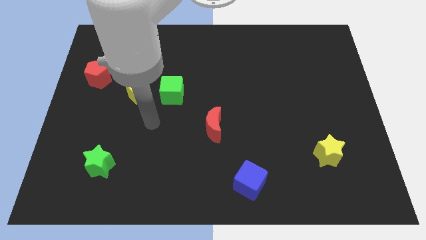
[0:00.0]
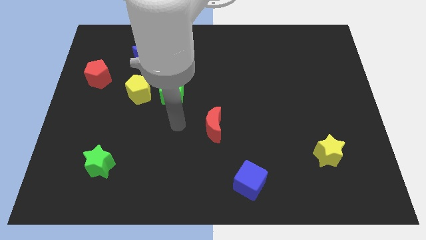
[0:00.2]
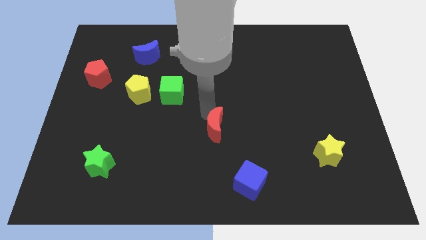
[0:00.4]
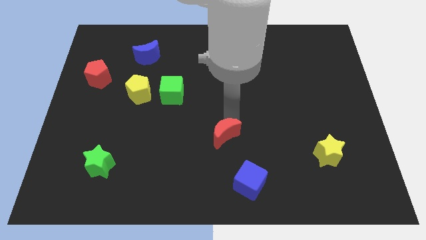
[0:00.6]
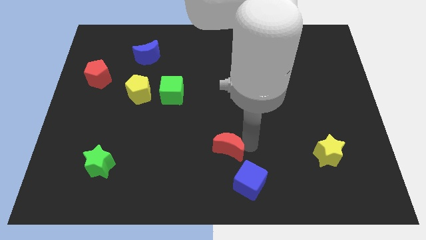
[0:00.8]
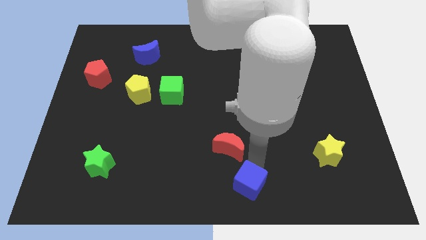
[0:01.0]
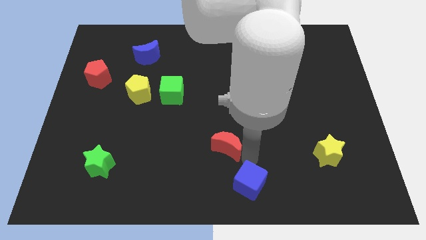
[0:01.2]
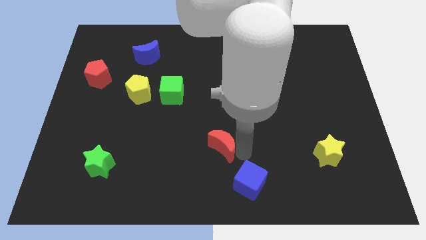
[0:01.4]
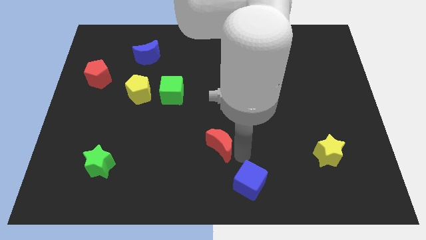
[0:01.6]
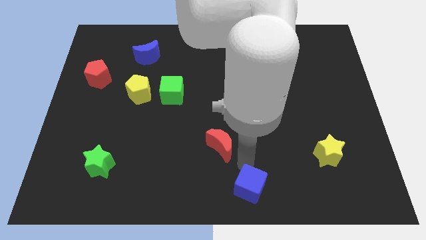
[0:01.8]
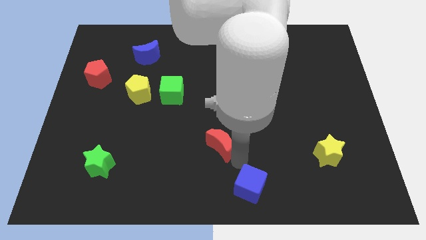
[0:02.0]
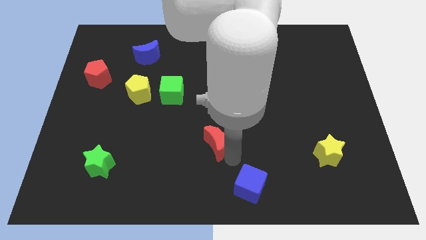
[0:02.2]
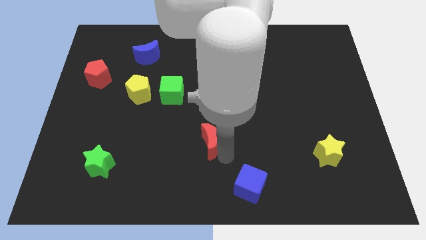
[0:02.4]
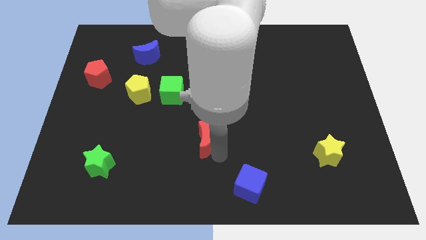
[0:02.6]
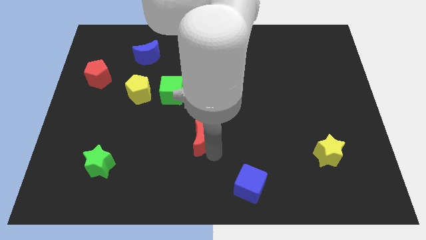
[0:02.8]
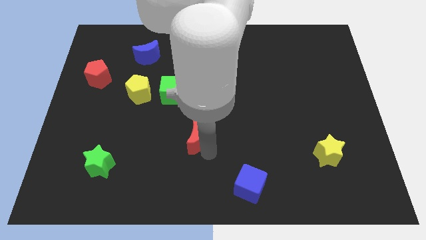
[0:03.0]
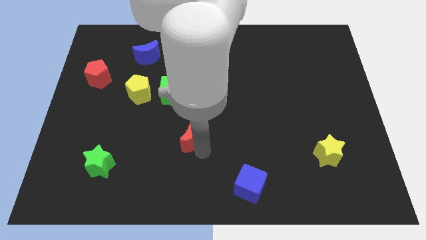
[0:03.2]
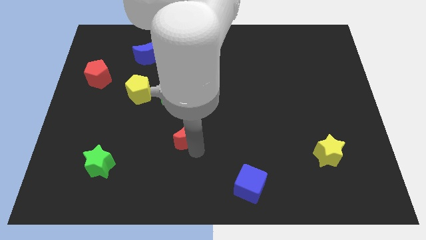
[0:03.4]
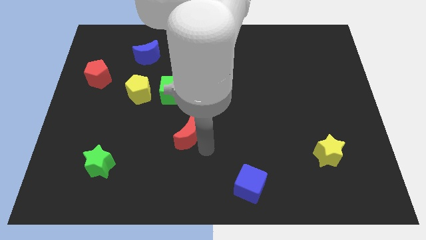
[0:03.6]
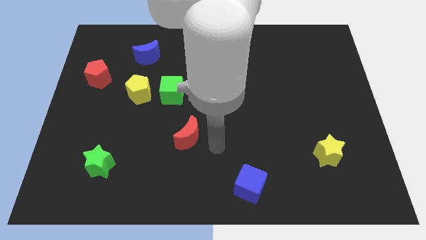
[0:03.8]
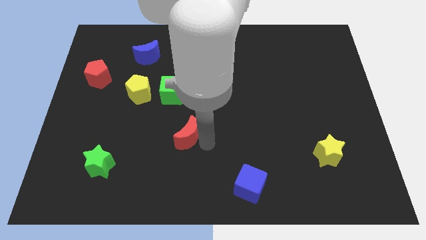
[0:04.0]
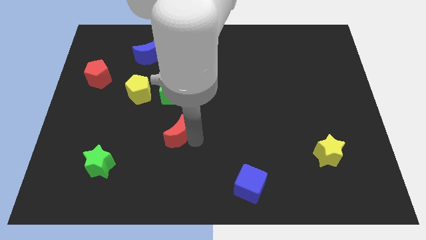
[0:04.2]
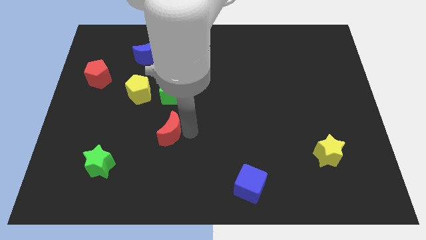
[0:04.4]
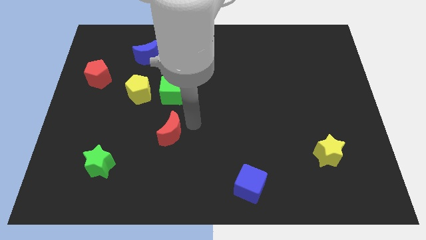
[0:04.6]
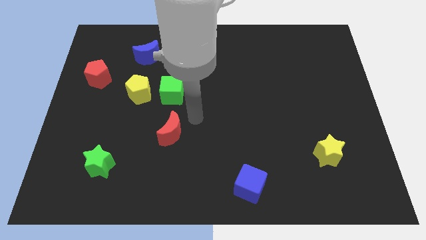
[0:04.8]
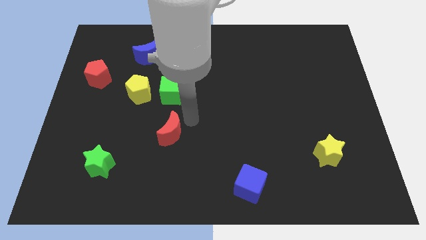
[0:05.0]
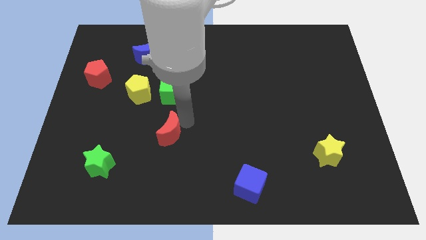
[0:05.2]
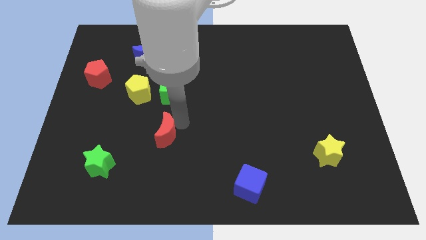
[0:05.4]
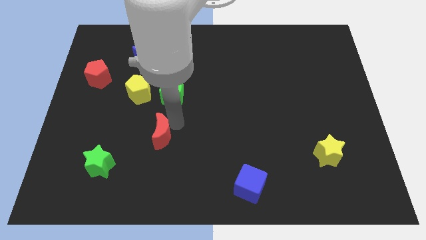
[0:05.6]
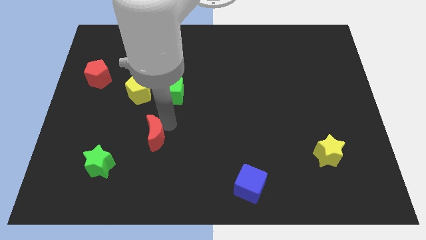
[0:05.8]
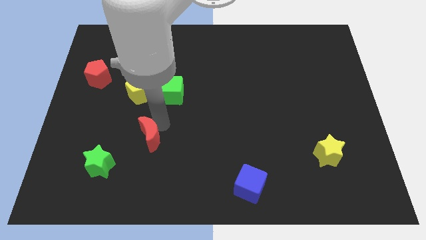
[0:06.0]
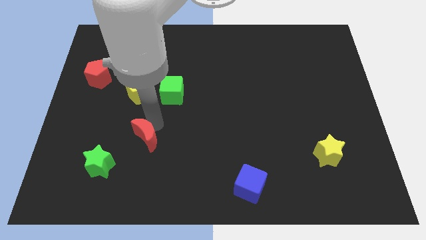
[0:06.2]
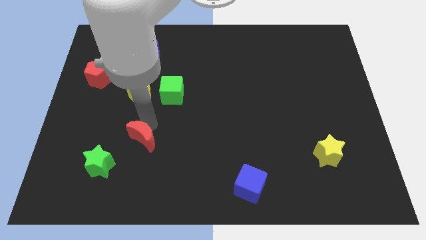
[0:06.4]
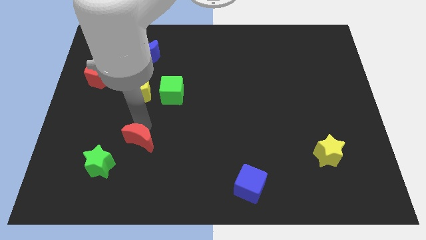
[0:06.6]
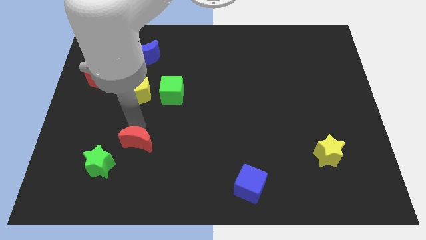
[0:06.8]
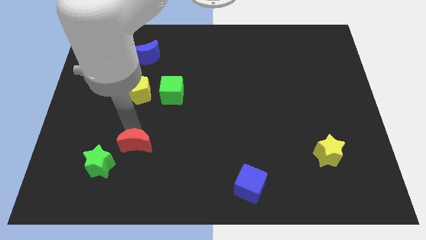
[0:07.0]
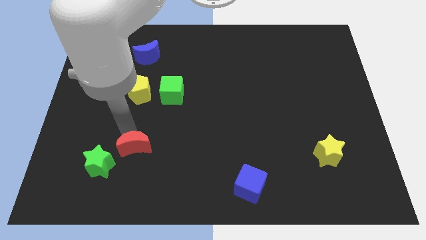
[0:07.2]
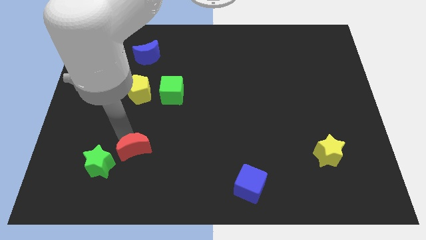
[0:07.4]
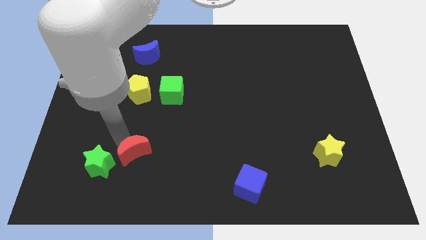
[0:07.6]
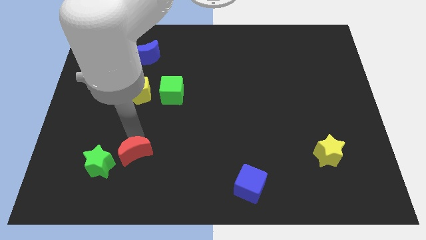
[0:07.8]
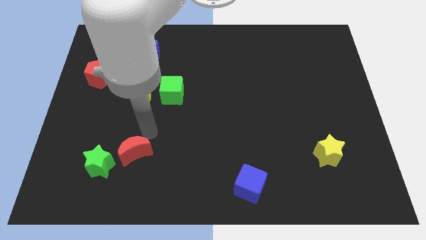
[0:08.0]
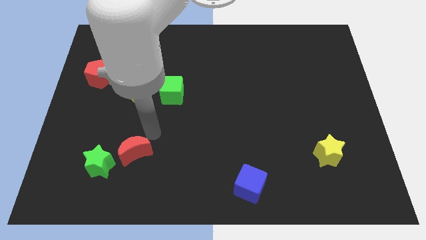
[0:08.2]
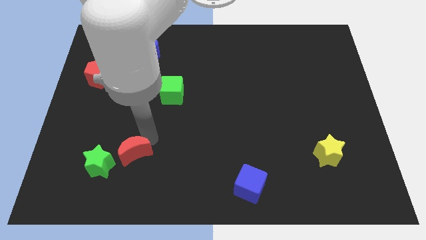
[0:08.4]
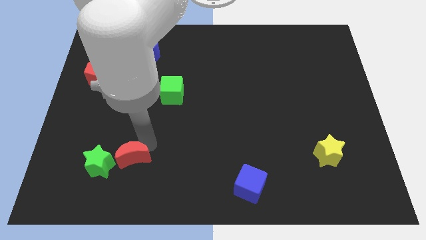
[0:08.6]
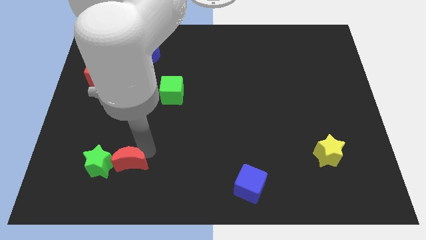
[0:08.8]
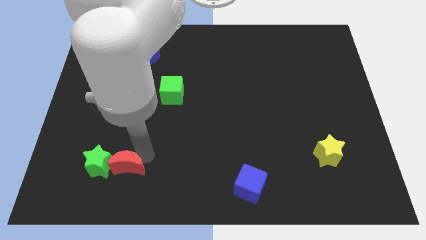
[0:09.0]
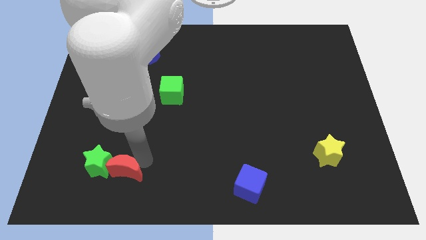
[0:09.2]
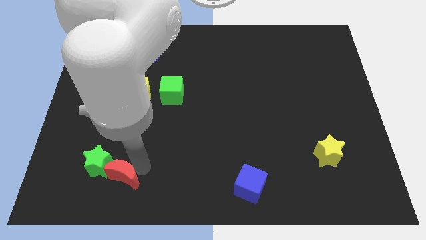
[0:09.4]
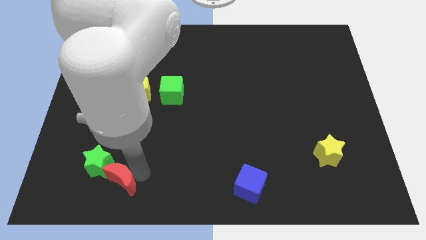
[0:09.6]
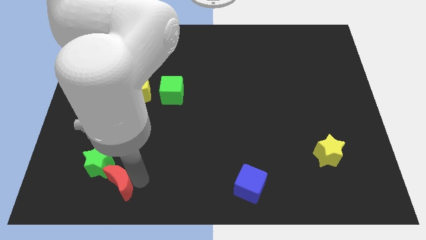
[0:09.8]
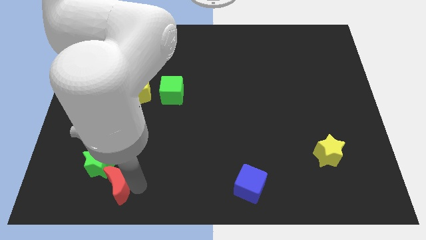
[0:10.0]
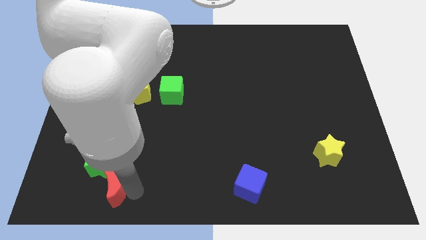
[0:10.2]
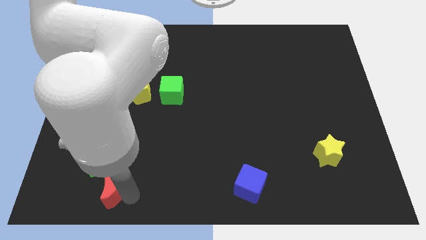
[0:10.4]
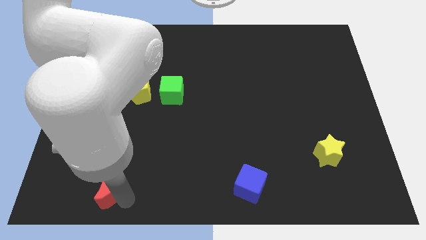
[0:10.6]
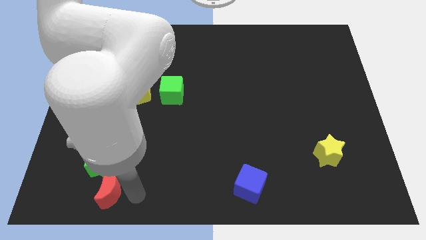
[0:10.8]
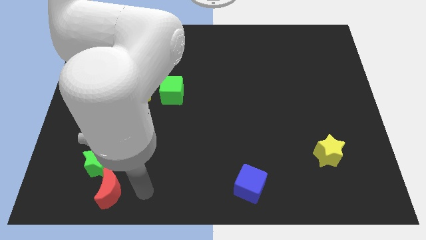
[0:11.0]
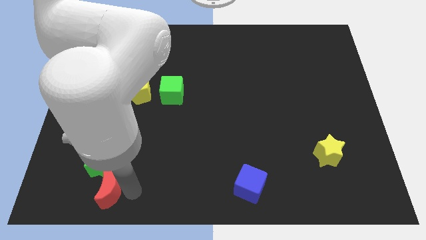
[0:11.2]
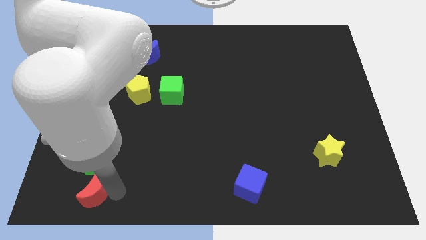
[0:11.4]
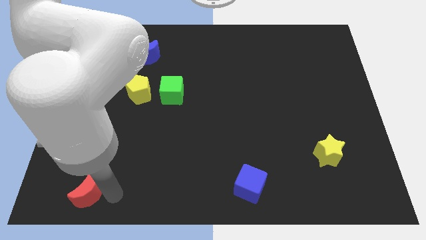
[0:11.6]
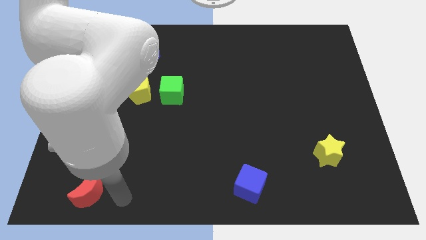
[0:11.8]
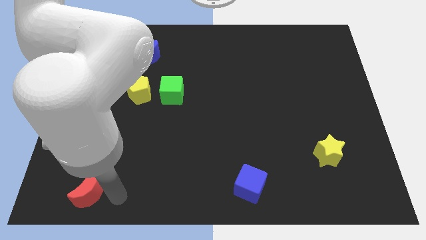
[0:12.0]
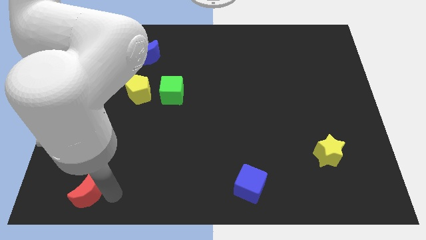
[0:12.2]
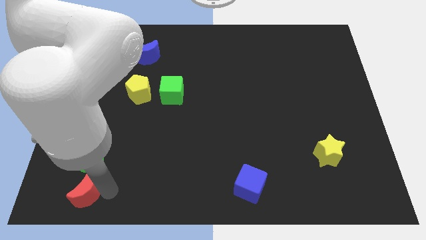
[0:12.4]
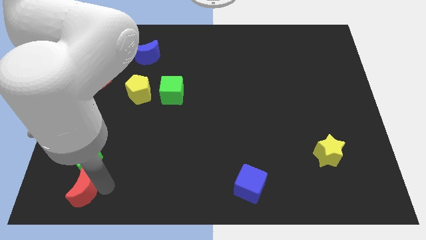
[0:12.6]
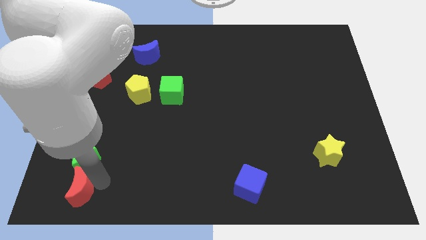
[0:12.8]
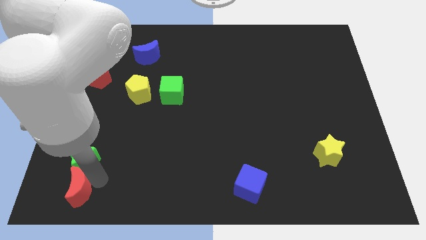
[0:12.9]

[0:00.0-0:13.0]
put the red moon to the bottom left corner
